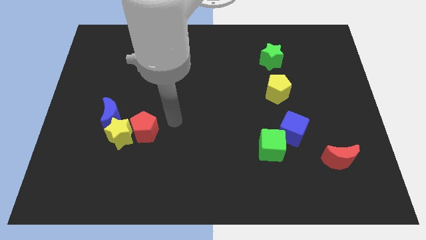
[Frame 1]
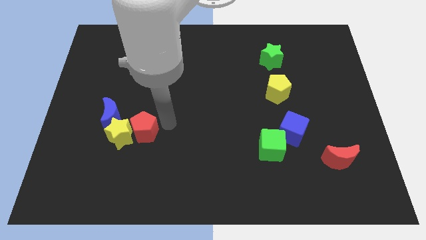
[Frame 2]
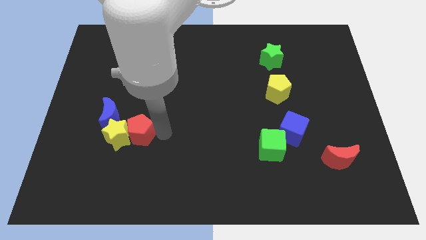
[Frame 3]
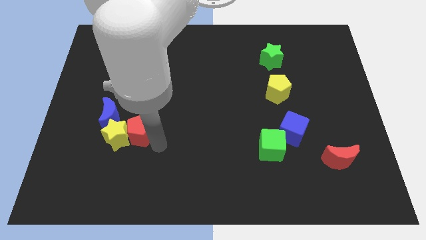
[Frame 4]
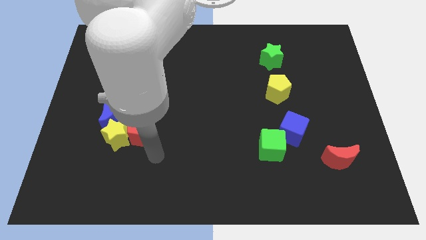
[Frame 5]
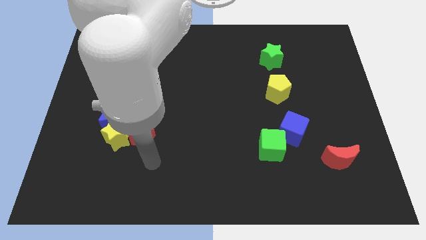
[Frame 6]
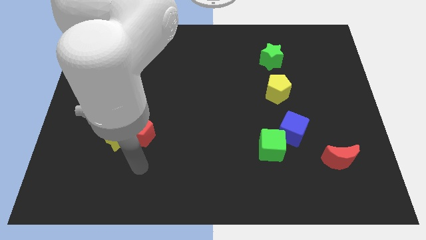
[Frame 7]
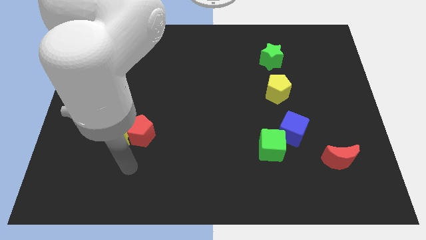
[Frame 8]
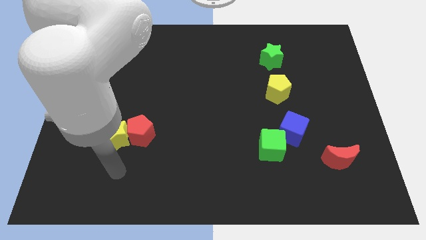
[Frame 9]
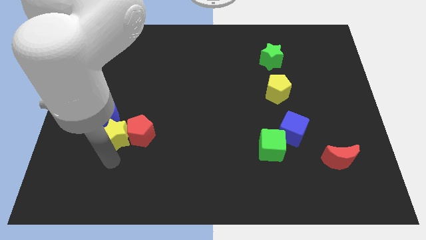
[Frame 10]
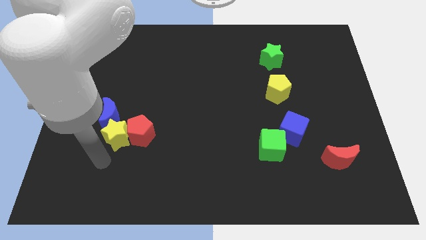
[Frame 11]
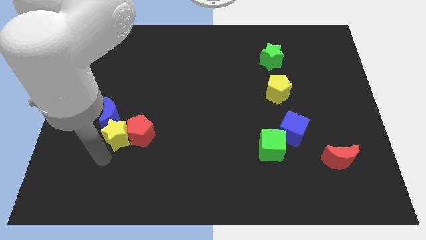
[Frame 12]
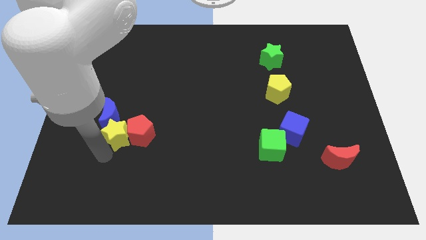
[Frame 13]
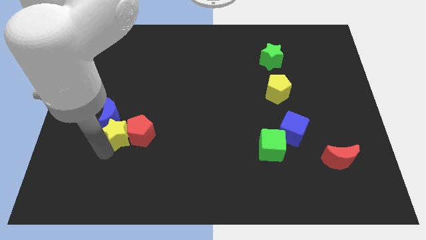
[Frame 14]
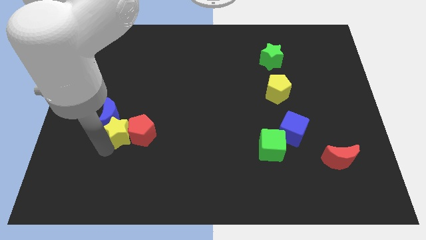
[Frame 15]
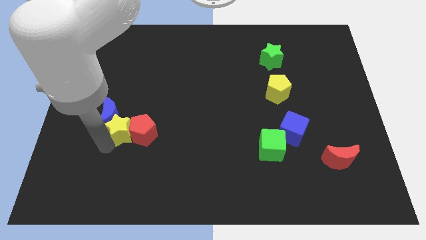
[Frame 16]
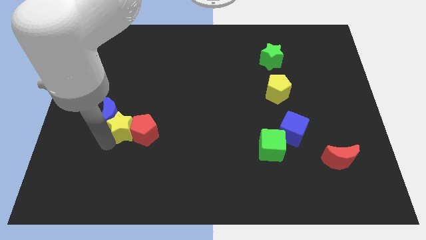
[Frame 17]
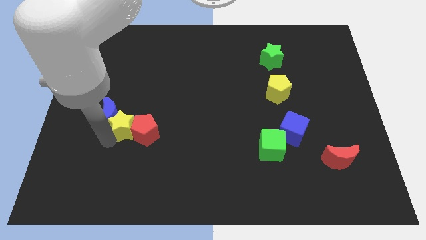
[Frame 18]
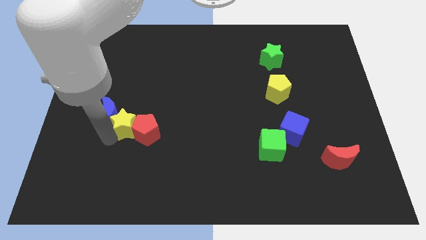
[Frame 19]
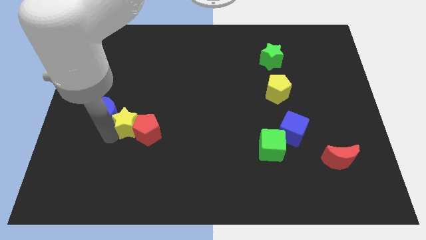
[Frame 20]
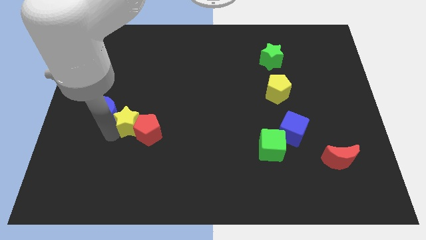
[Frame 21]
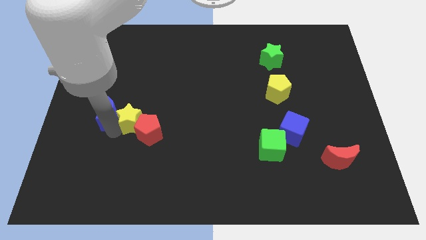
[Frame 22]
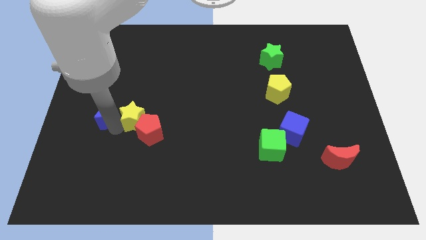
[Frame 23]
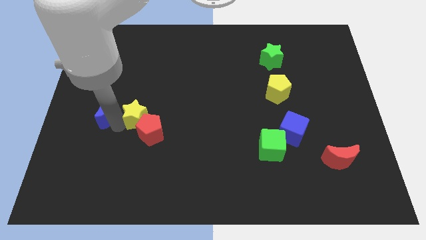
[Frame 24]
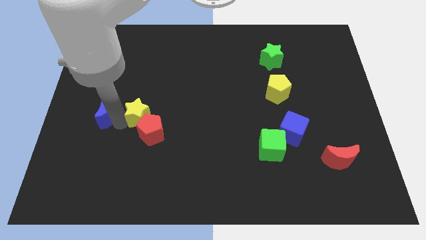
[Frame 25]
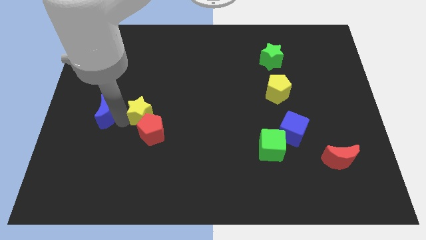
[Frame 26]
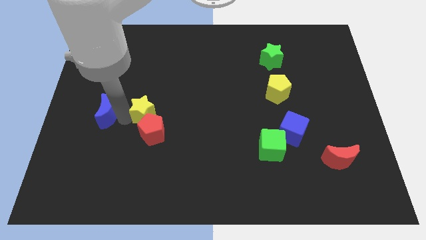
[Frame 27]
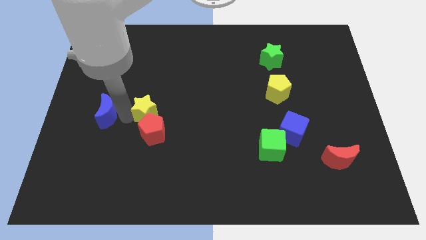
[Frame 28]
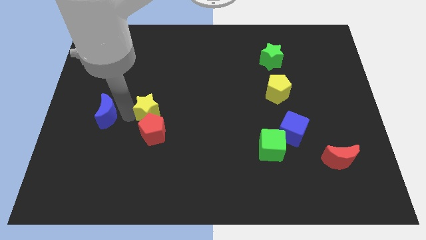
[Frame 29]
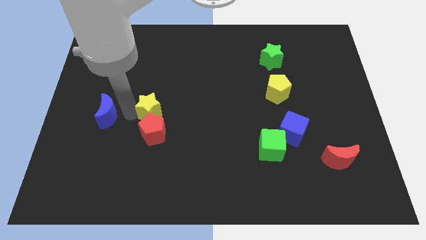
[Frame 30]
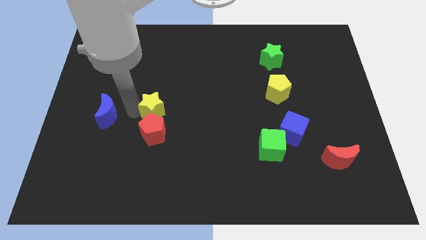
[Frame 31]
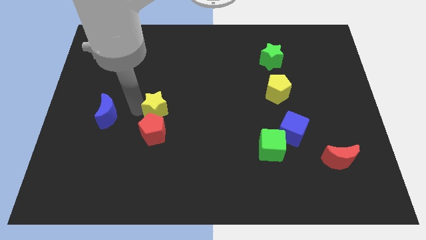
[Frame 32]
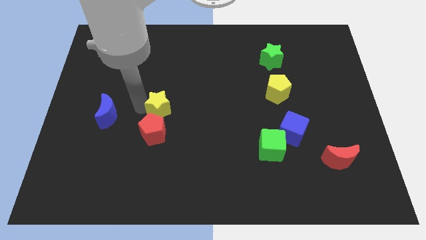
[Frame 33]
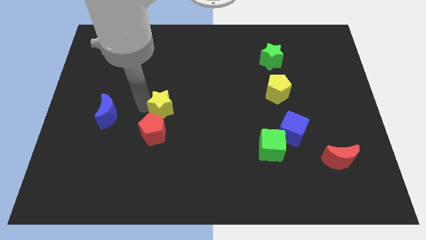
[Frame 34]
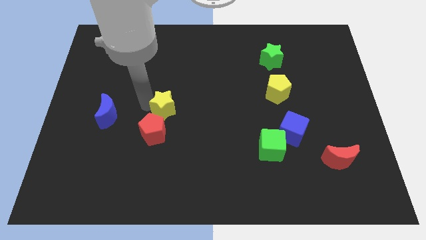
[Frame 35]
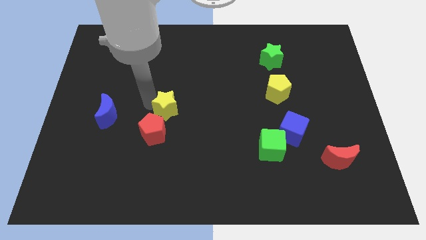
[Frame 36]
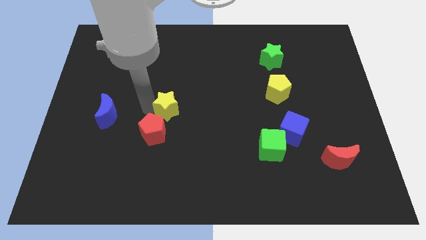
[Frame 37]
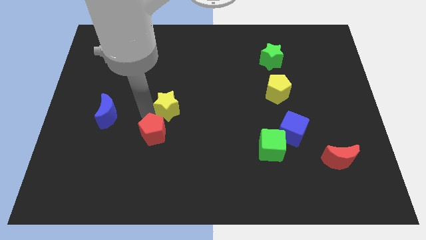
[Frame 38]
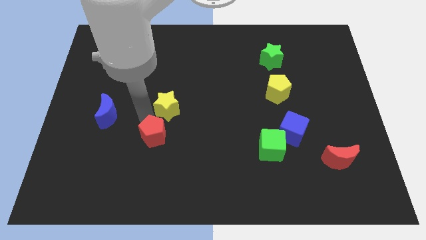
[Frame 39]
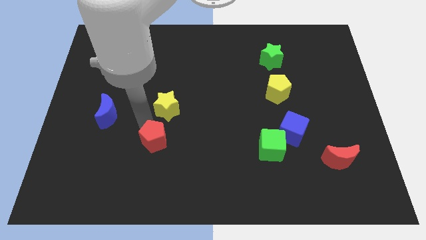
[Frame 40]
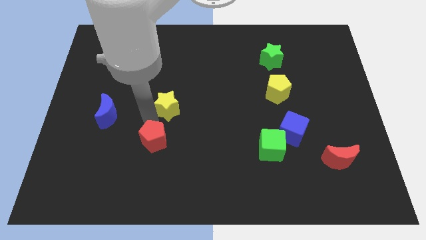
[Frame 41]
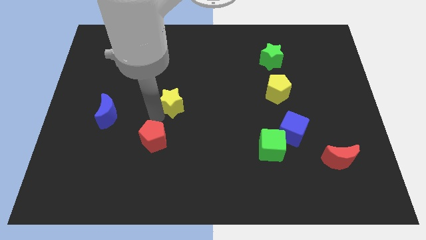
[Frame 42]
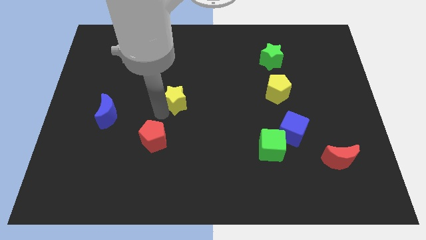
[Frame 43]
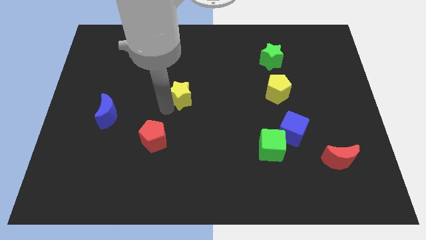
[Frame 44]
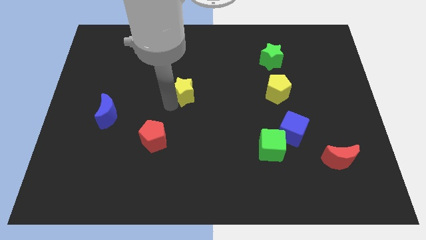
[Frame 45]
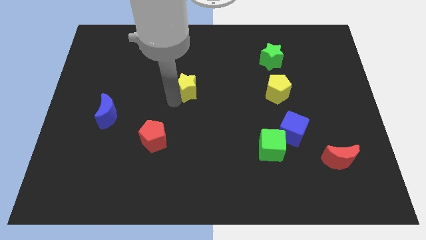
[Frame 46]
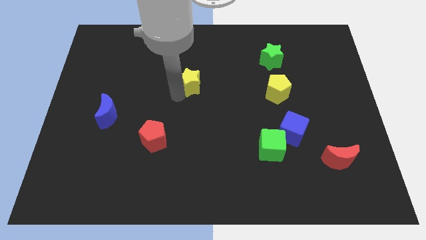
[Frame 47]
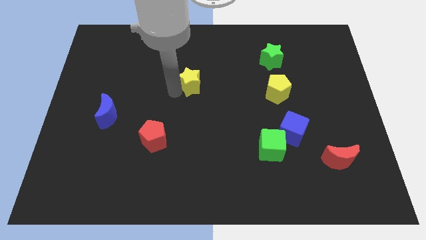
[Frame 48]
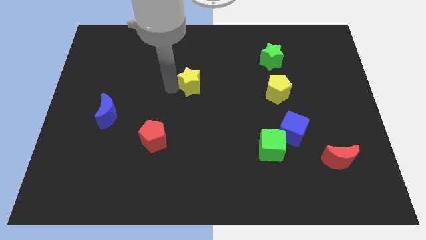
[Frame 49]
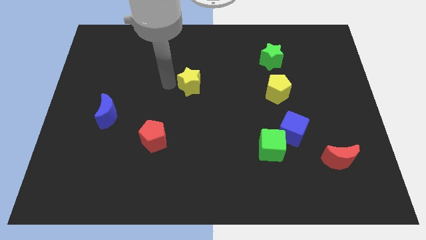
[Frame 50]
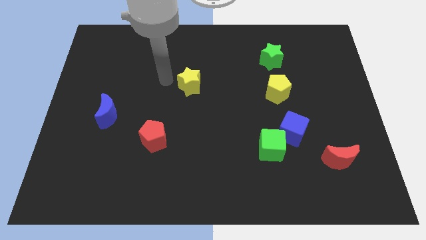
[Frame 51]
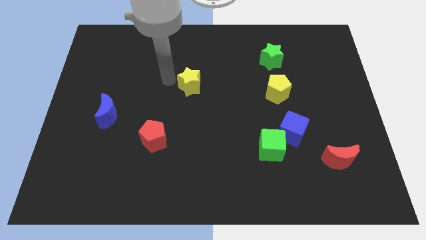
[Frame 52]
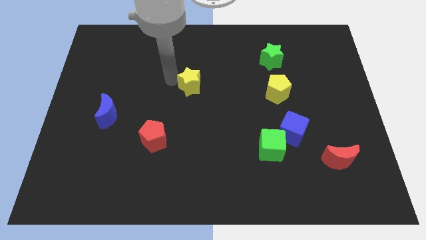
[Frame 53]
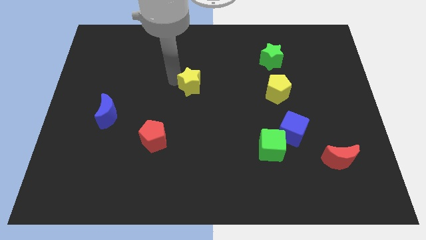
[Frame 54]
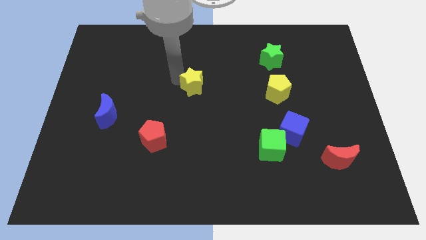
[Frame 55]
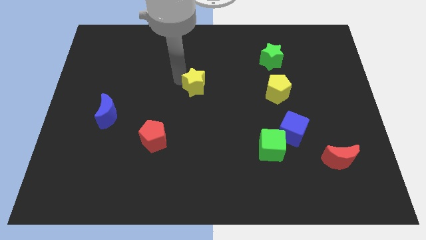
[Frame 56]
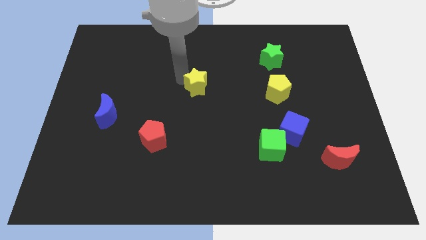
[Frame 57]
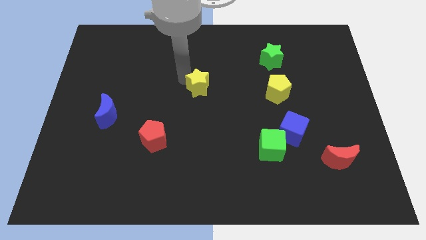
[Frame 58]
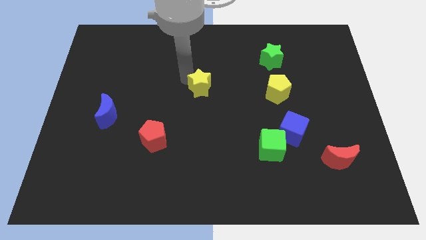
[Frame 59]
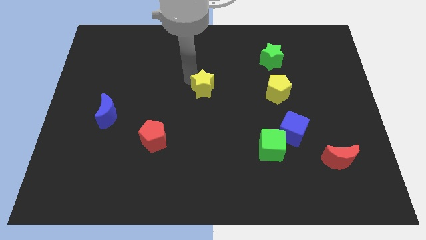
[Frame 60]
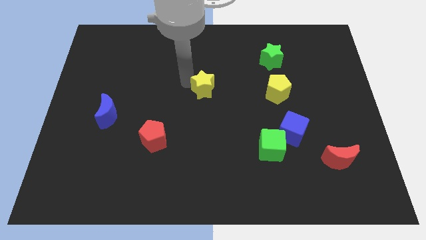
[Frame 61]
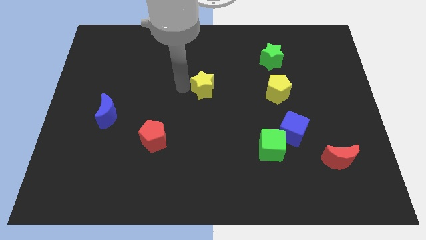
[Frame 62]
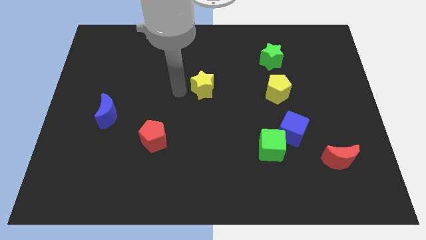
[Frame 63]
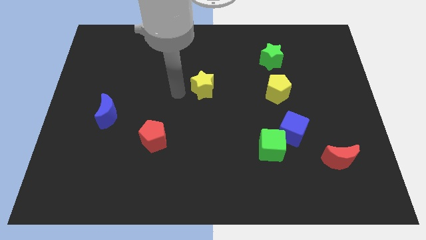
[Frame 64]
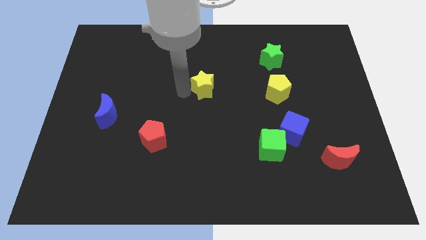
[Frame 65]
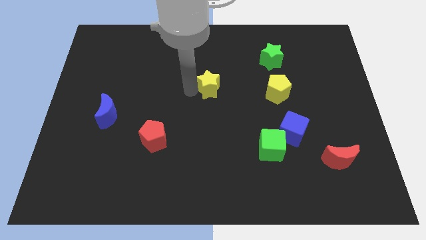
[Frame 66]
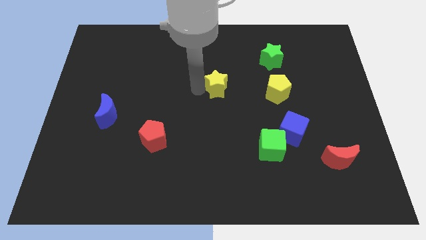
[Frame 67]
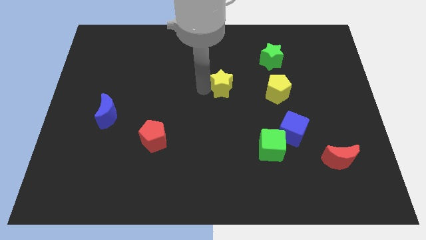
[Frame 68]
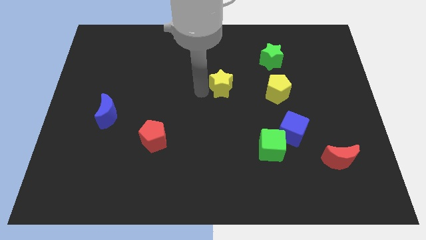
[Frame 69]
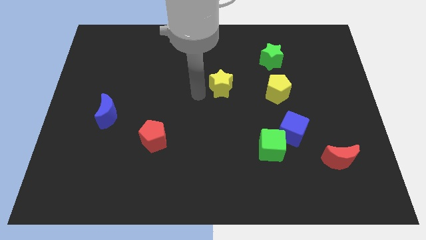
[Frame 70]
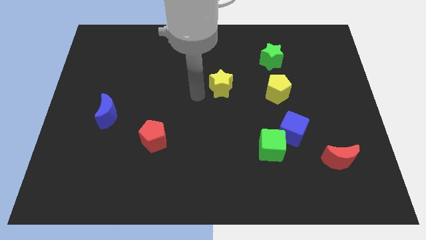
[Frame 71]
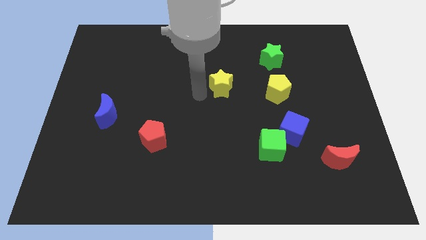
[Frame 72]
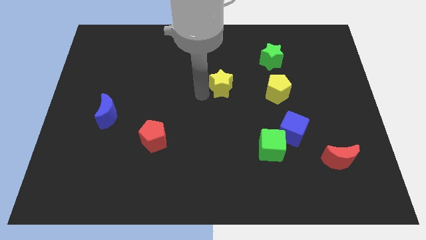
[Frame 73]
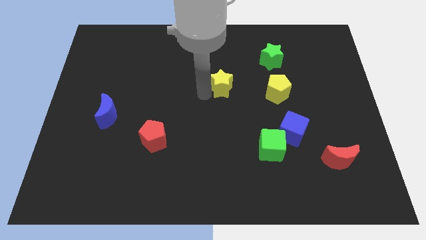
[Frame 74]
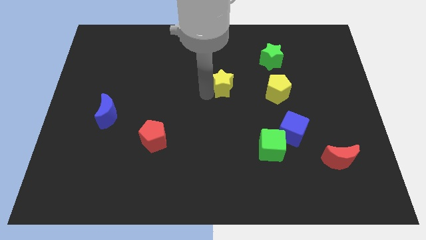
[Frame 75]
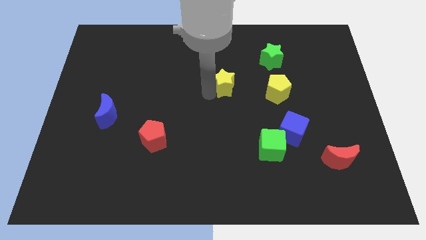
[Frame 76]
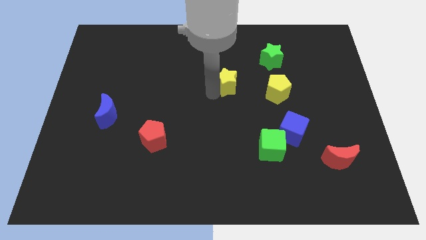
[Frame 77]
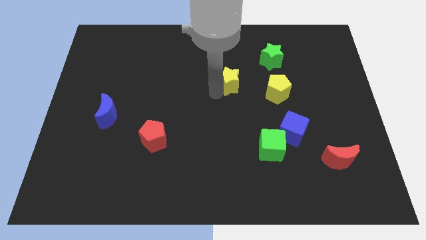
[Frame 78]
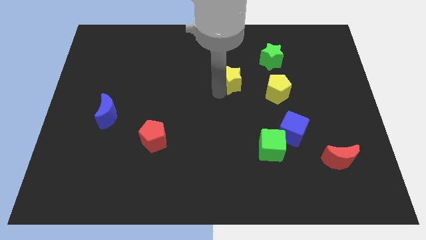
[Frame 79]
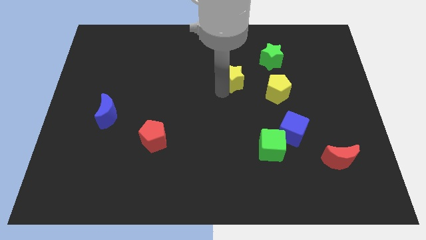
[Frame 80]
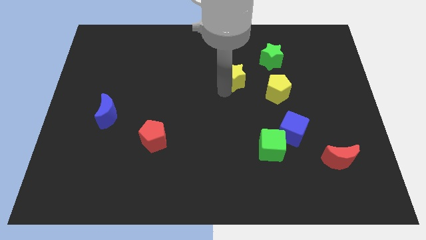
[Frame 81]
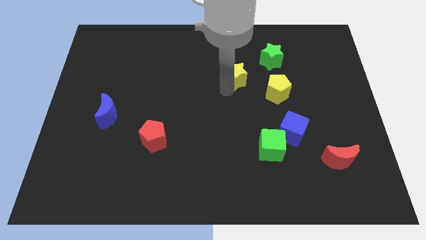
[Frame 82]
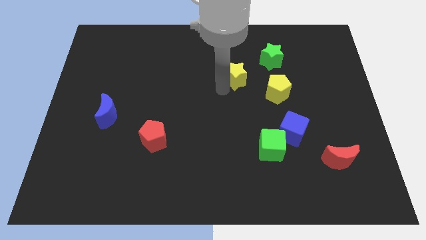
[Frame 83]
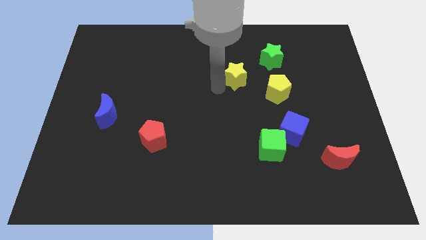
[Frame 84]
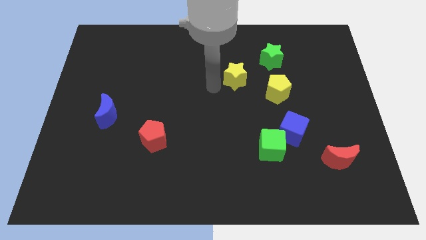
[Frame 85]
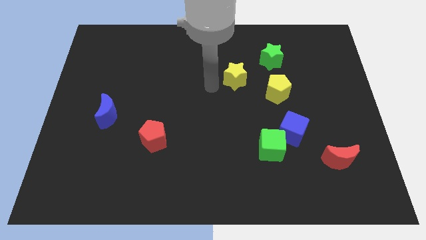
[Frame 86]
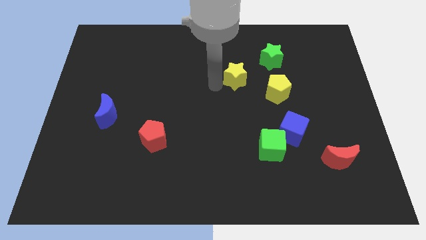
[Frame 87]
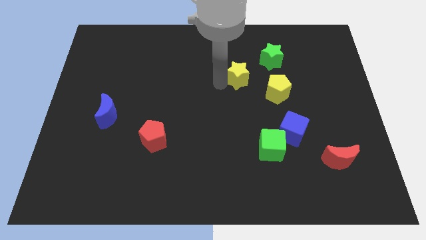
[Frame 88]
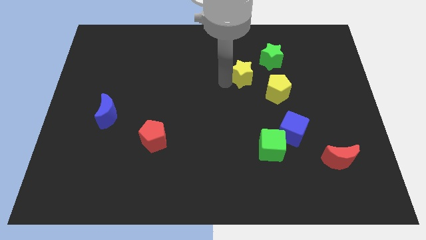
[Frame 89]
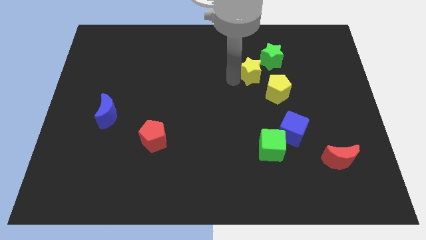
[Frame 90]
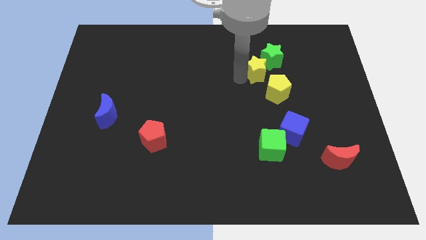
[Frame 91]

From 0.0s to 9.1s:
slide the yellow star towards the green star
